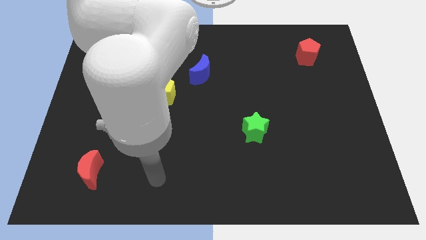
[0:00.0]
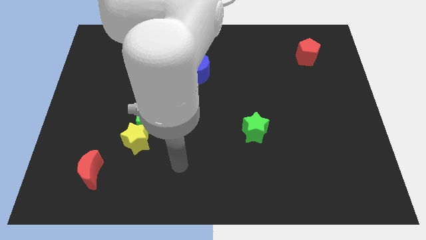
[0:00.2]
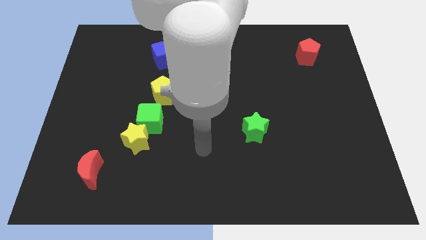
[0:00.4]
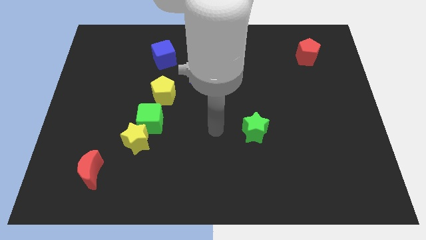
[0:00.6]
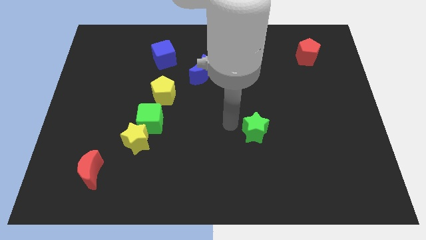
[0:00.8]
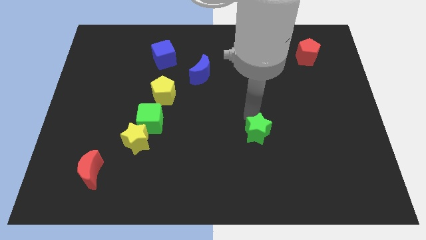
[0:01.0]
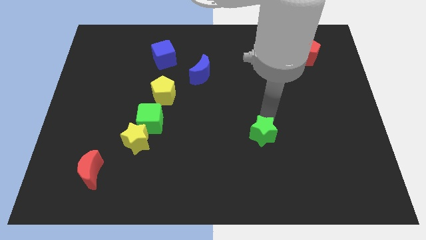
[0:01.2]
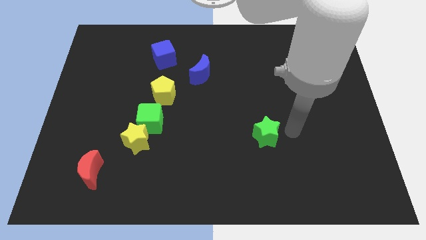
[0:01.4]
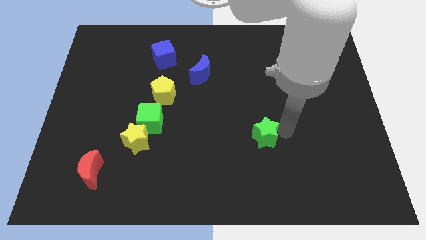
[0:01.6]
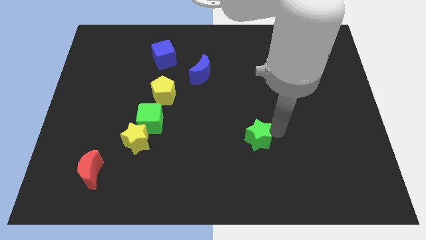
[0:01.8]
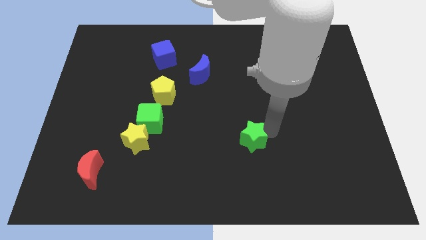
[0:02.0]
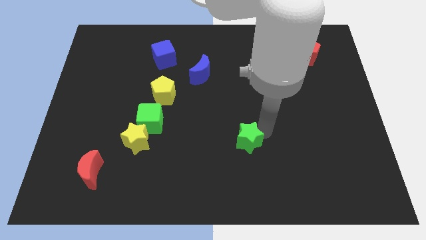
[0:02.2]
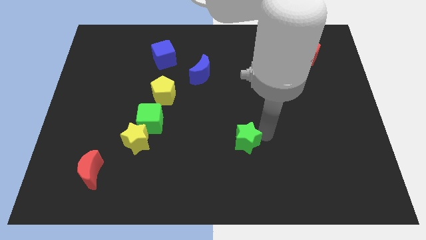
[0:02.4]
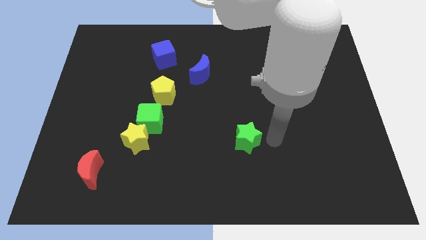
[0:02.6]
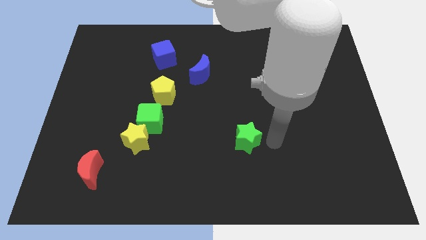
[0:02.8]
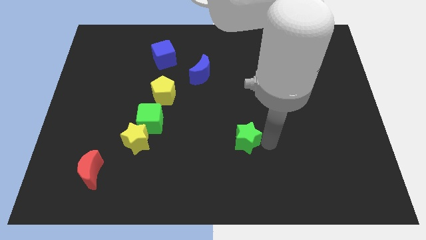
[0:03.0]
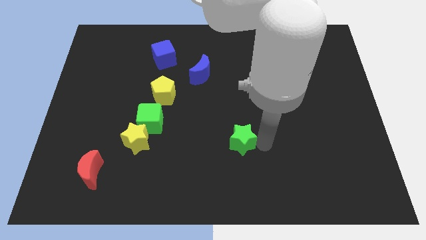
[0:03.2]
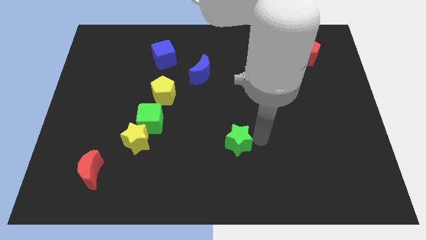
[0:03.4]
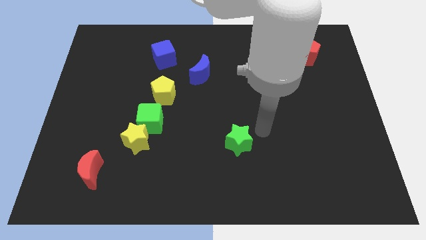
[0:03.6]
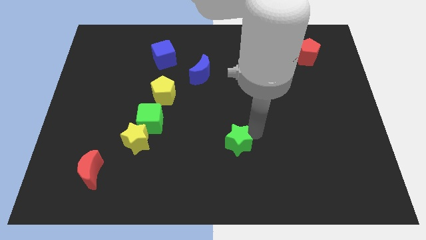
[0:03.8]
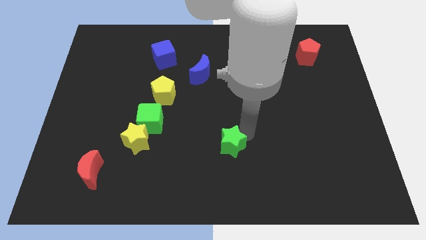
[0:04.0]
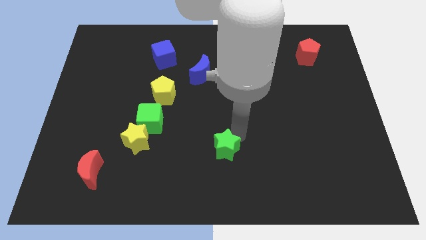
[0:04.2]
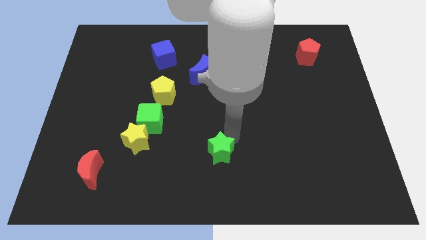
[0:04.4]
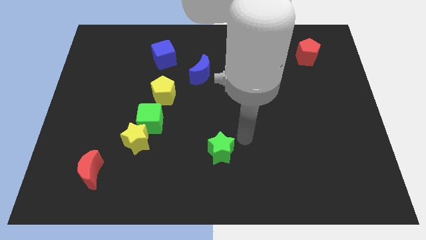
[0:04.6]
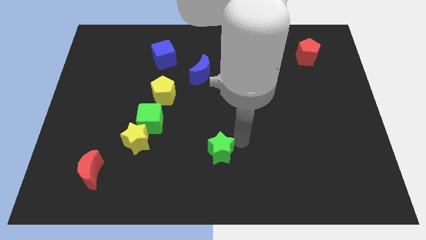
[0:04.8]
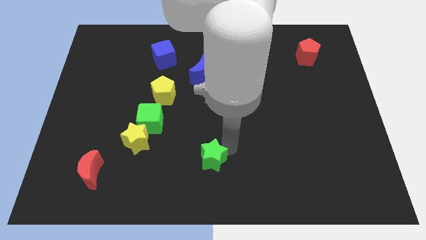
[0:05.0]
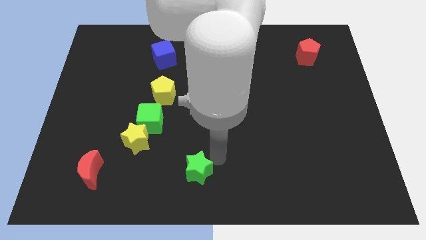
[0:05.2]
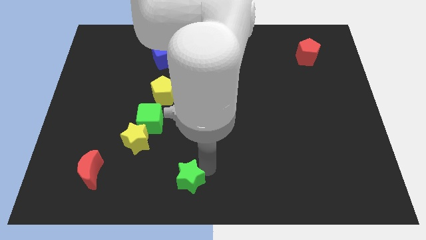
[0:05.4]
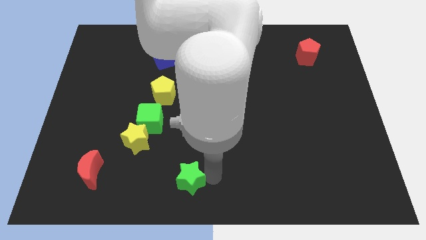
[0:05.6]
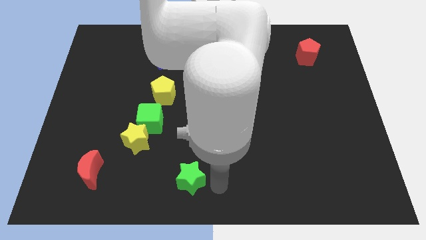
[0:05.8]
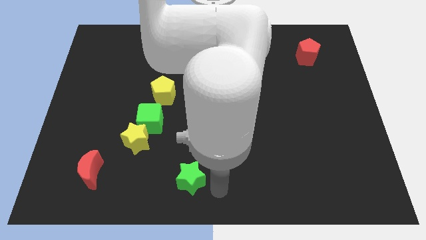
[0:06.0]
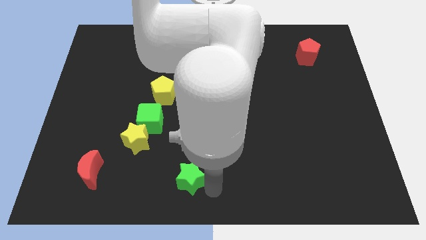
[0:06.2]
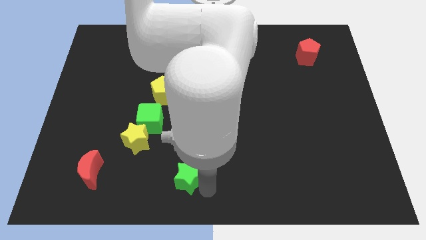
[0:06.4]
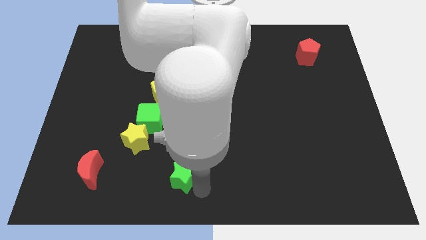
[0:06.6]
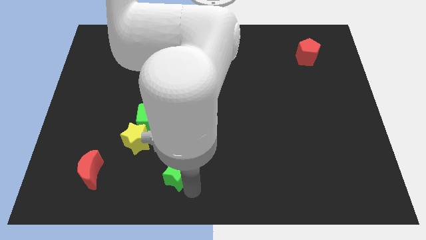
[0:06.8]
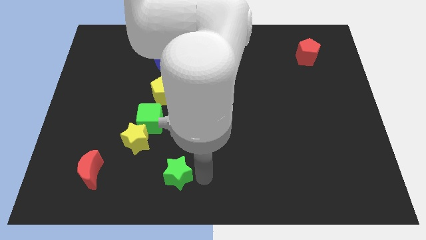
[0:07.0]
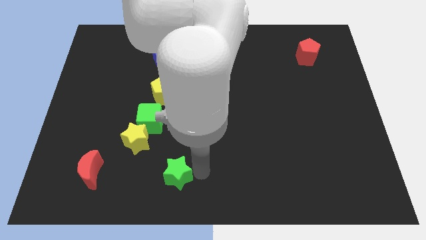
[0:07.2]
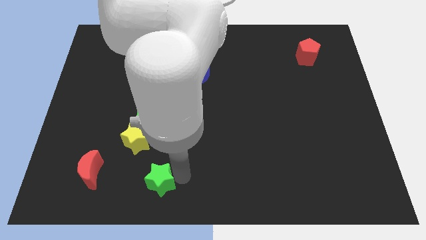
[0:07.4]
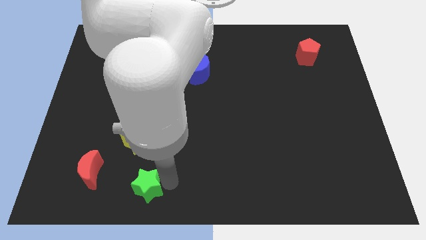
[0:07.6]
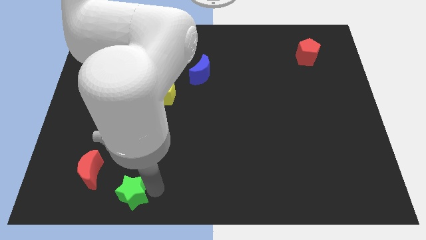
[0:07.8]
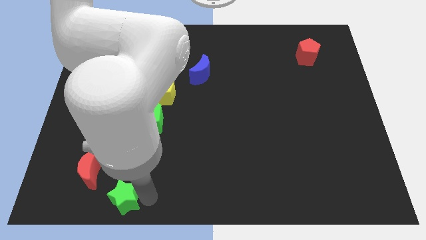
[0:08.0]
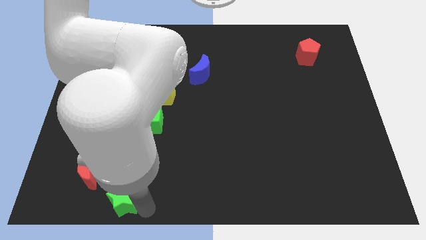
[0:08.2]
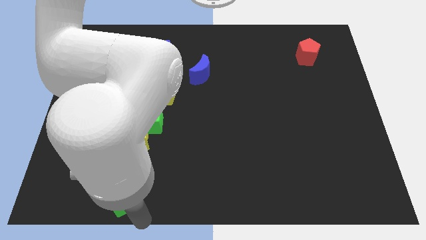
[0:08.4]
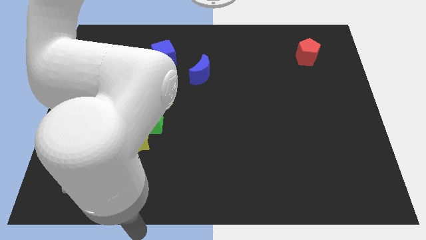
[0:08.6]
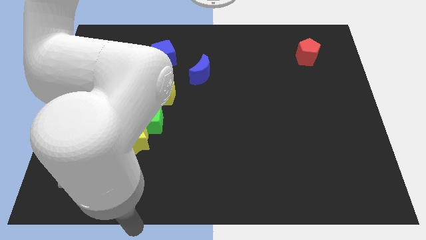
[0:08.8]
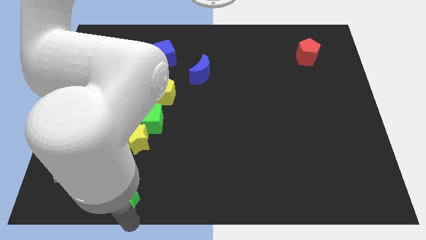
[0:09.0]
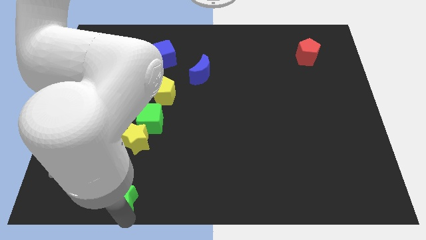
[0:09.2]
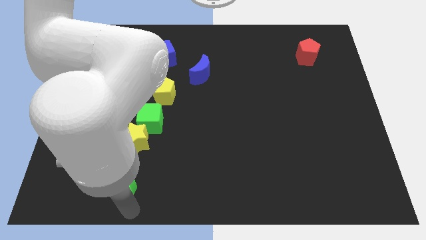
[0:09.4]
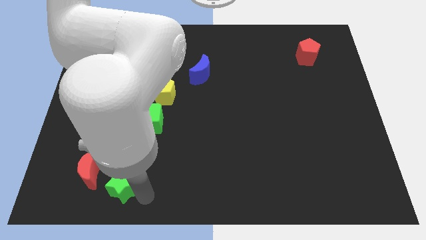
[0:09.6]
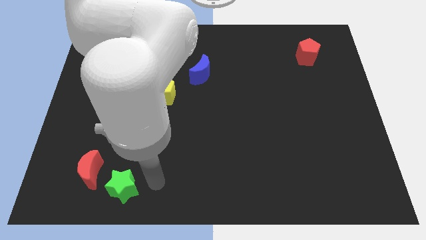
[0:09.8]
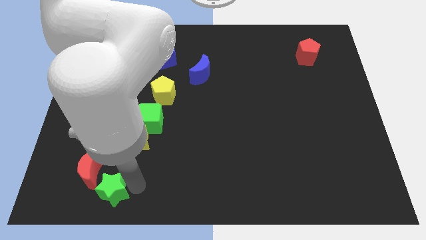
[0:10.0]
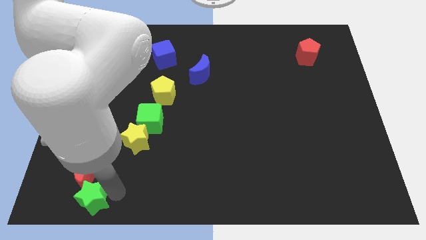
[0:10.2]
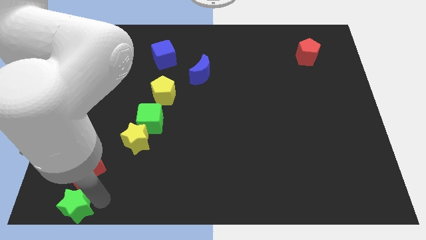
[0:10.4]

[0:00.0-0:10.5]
slide the green star to the bottom left

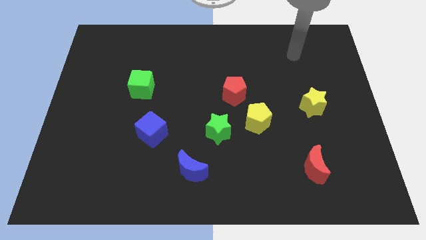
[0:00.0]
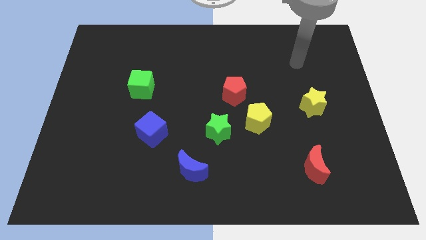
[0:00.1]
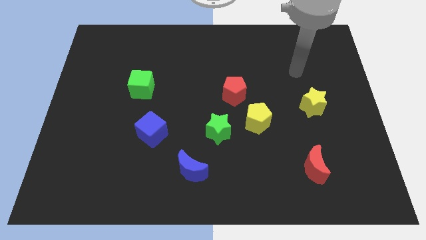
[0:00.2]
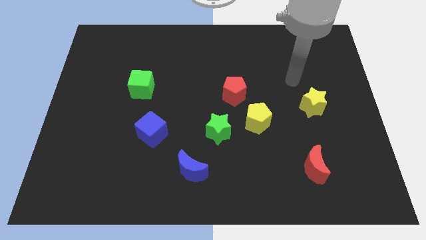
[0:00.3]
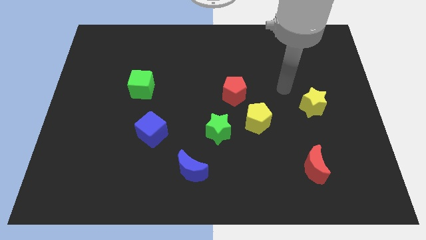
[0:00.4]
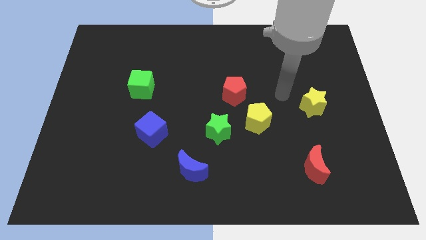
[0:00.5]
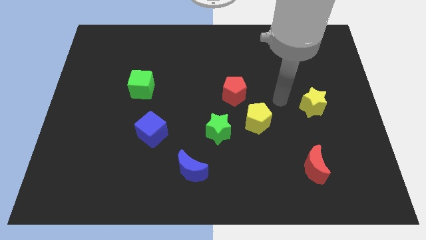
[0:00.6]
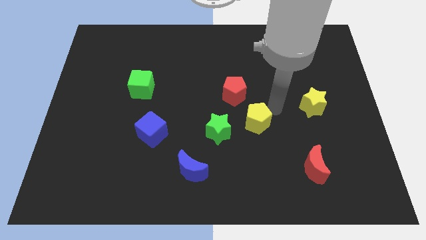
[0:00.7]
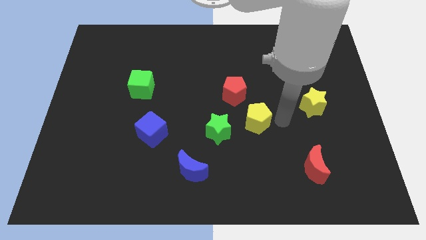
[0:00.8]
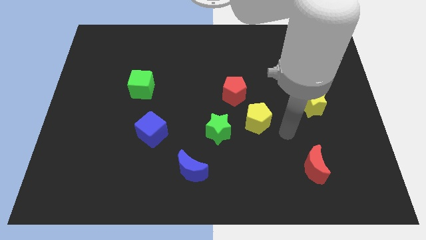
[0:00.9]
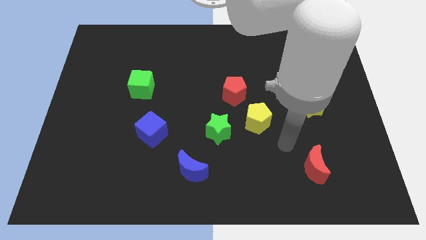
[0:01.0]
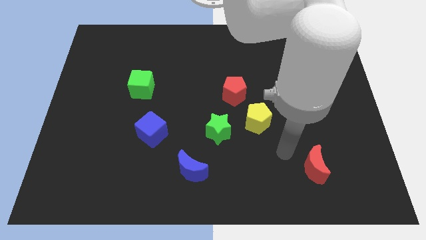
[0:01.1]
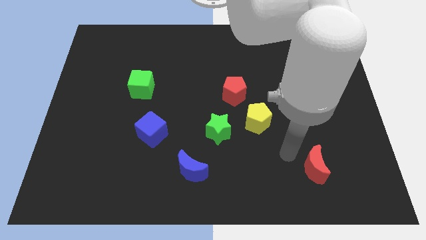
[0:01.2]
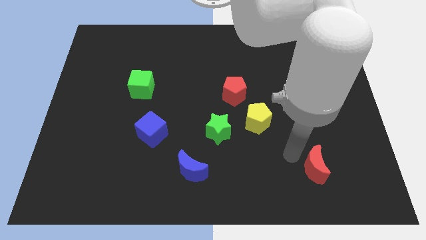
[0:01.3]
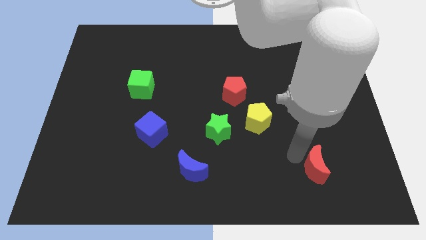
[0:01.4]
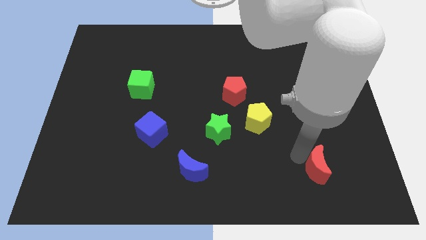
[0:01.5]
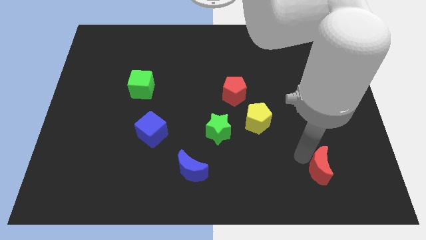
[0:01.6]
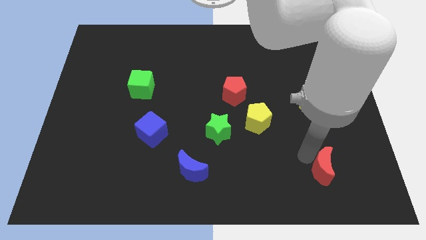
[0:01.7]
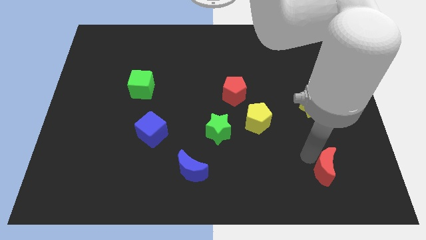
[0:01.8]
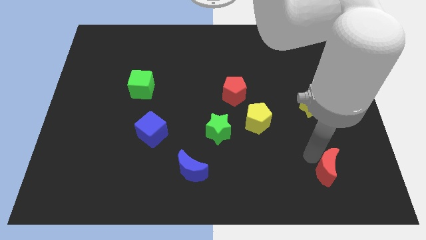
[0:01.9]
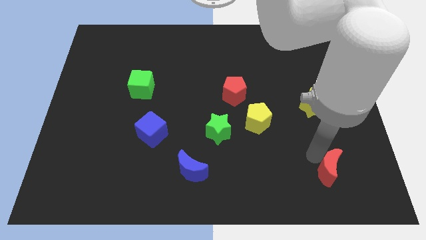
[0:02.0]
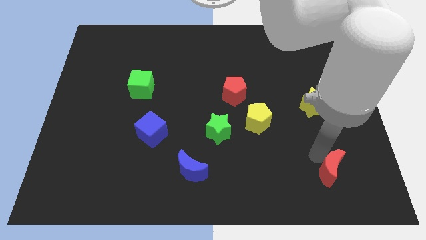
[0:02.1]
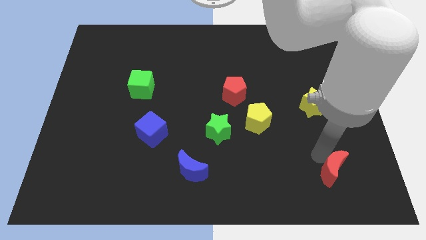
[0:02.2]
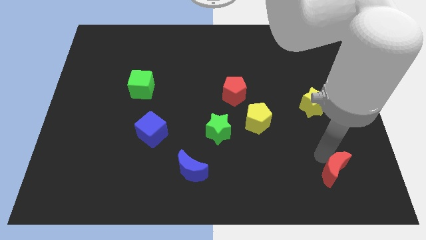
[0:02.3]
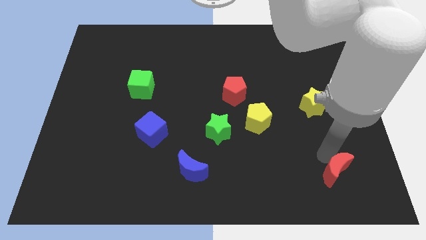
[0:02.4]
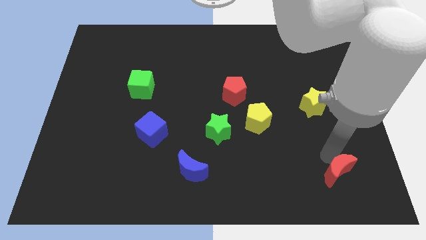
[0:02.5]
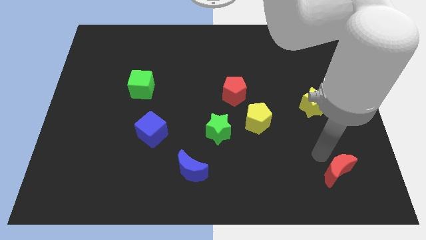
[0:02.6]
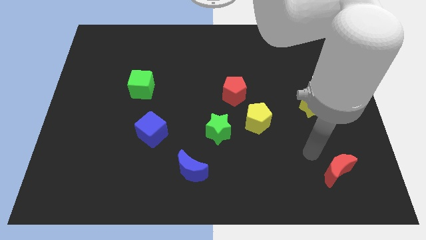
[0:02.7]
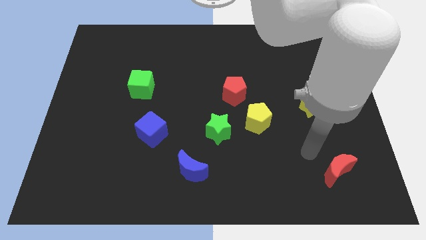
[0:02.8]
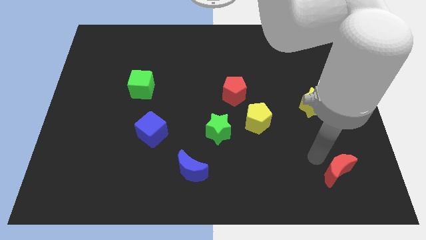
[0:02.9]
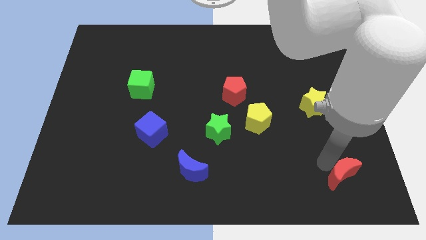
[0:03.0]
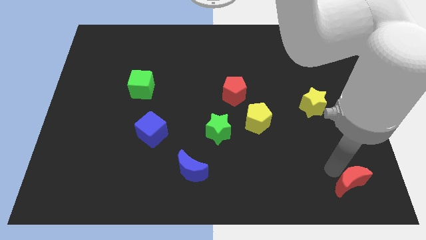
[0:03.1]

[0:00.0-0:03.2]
push the red moon to the bottom right
